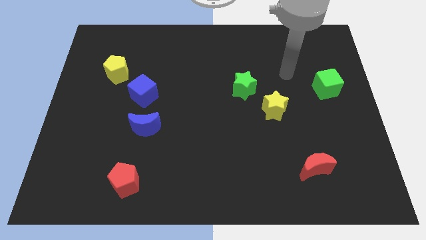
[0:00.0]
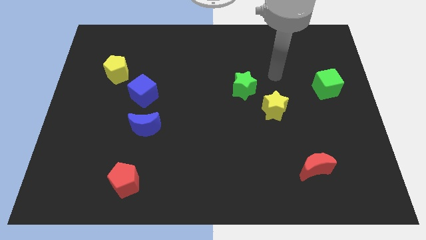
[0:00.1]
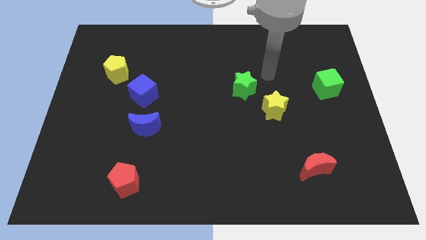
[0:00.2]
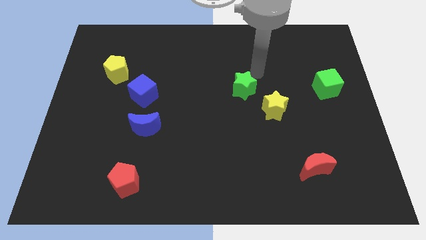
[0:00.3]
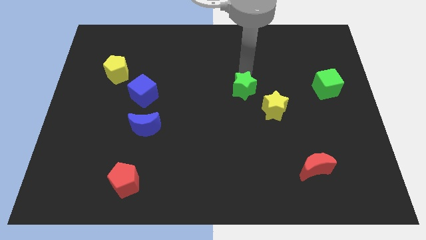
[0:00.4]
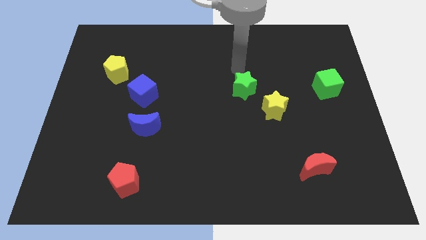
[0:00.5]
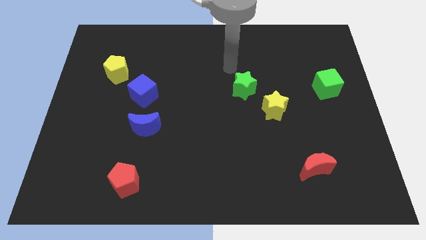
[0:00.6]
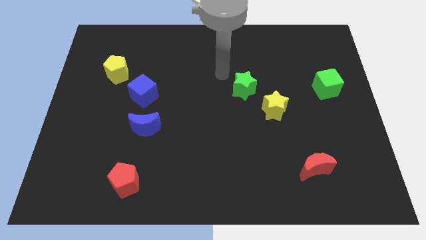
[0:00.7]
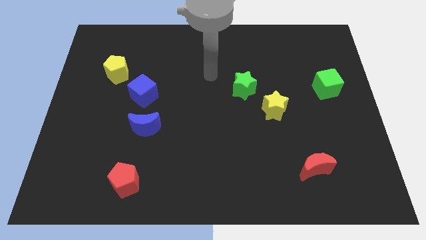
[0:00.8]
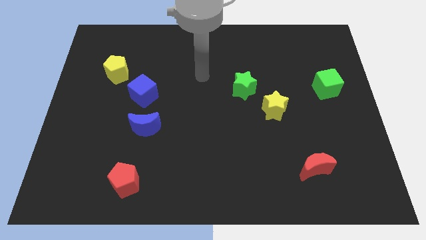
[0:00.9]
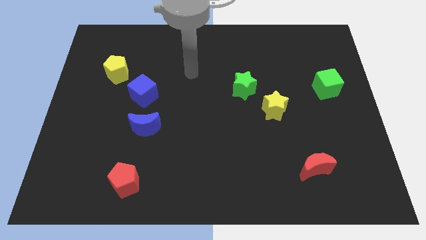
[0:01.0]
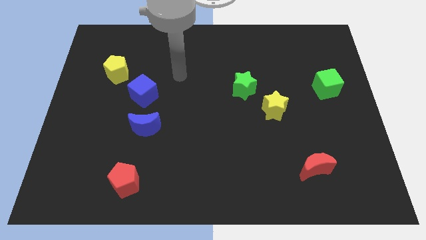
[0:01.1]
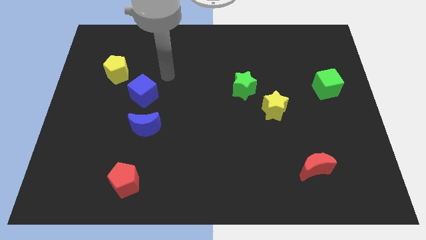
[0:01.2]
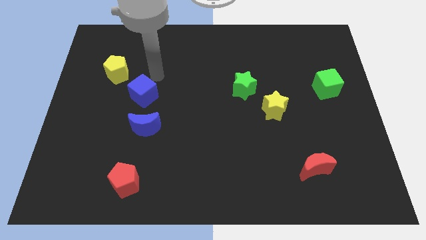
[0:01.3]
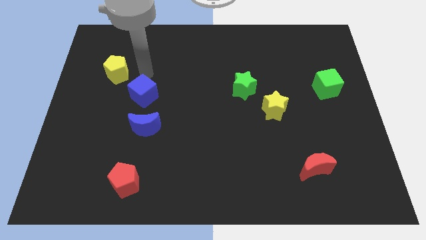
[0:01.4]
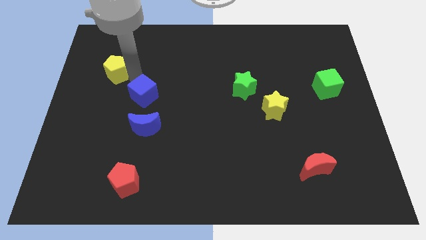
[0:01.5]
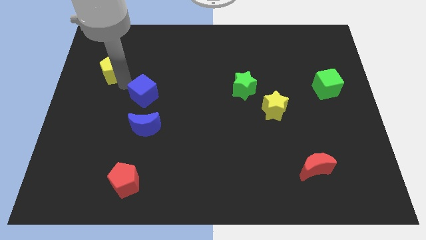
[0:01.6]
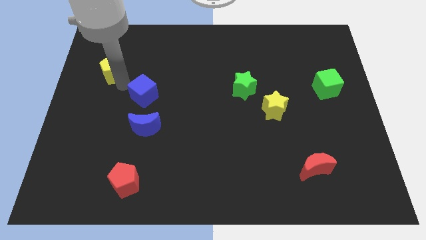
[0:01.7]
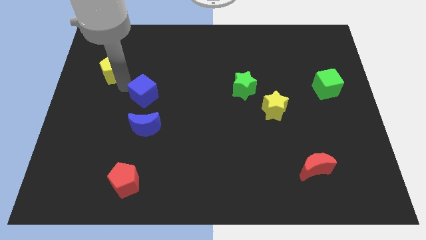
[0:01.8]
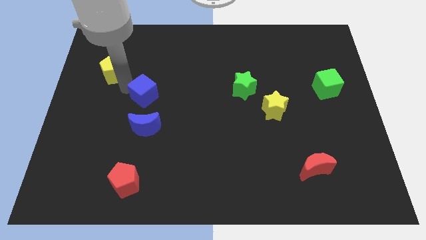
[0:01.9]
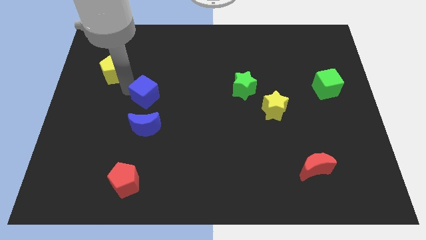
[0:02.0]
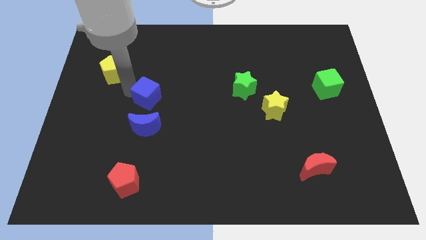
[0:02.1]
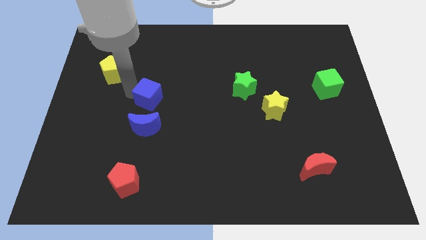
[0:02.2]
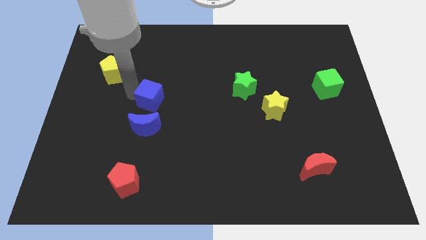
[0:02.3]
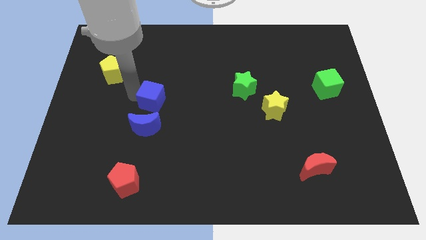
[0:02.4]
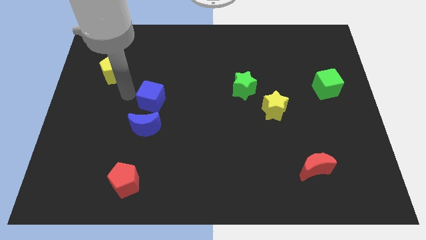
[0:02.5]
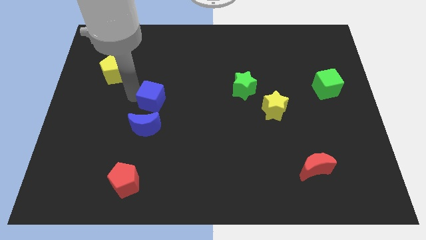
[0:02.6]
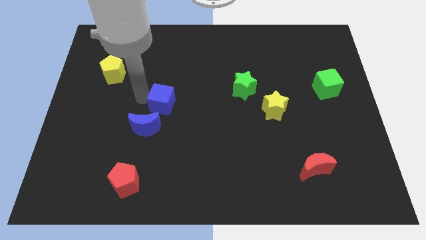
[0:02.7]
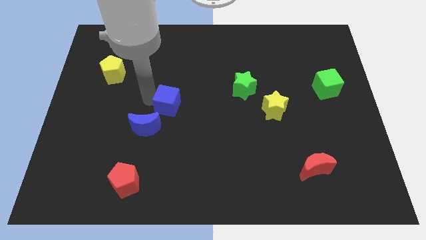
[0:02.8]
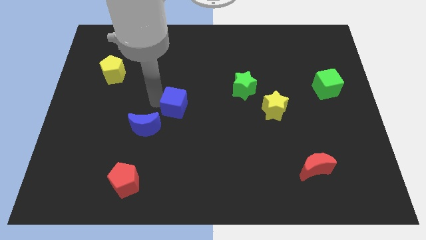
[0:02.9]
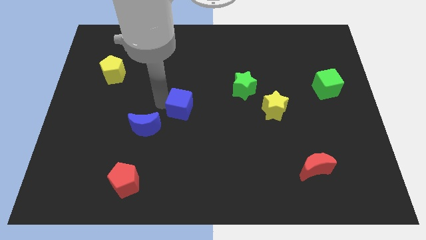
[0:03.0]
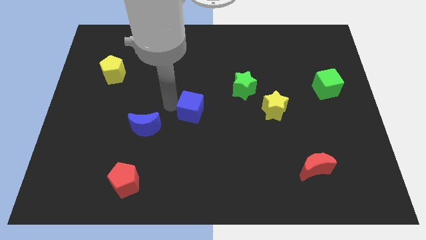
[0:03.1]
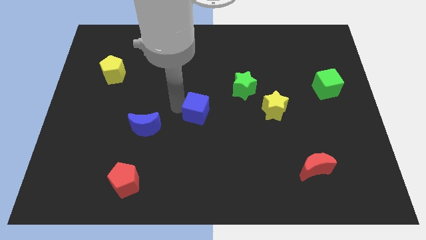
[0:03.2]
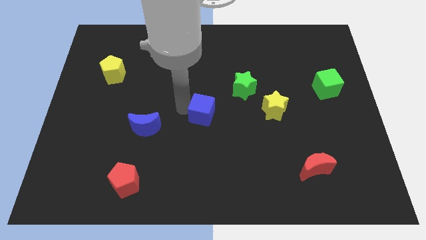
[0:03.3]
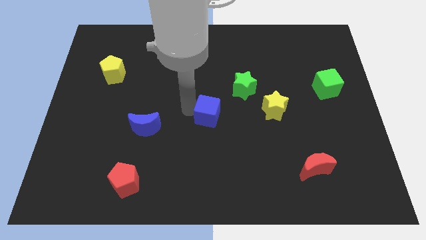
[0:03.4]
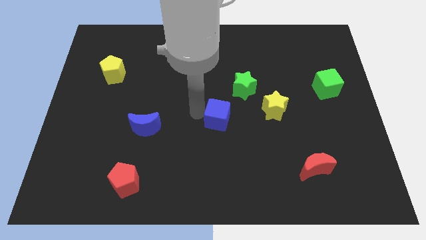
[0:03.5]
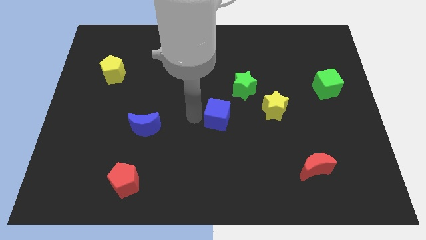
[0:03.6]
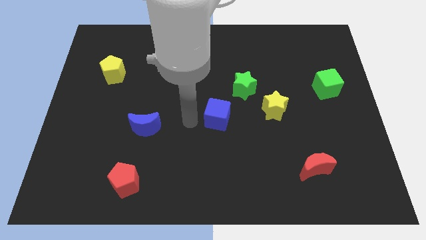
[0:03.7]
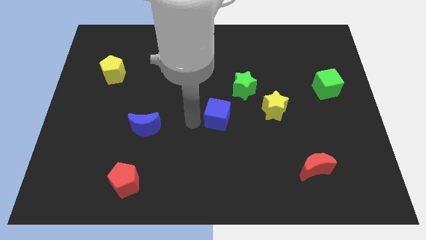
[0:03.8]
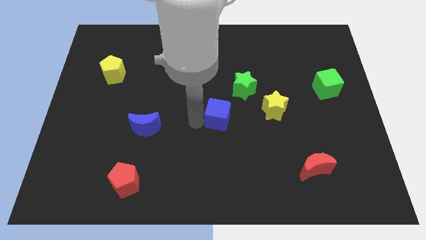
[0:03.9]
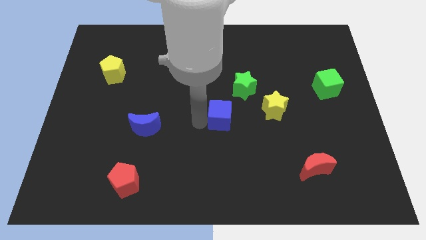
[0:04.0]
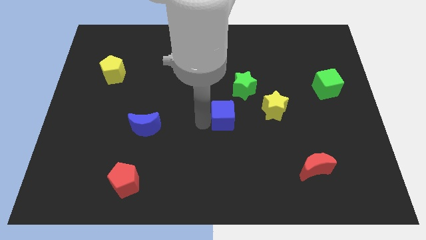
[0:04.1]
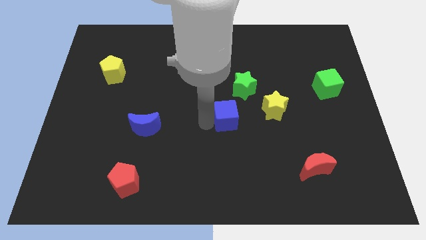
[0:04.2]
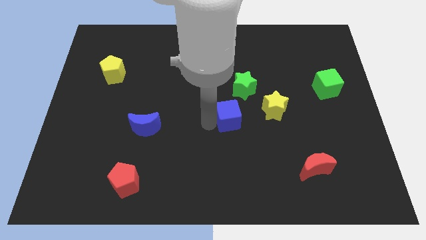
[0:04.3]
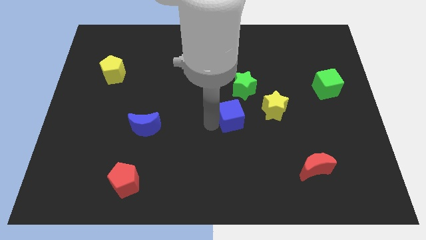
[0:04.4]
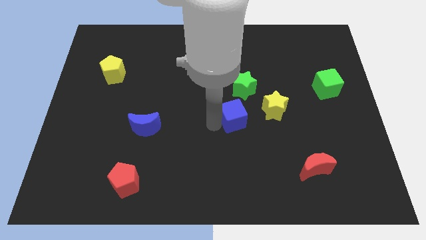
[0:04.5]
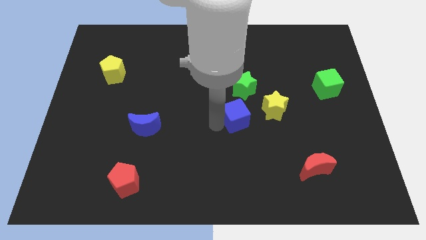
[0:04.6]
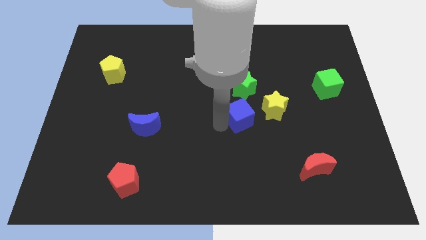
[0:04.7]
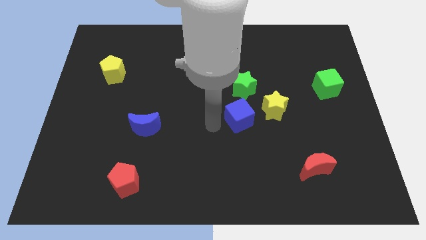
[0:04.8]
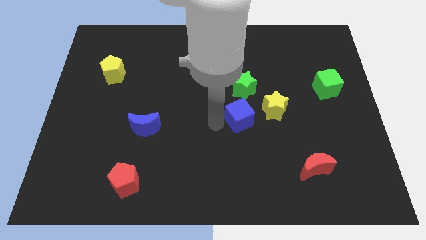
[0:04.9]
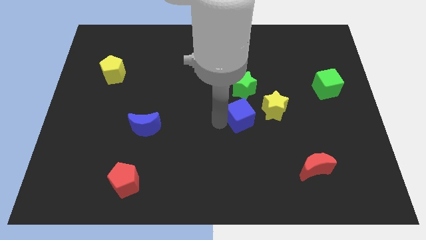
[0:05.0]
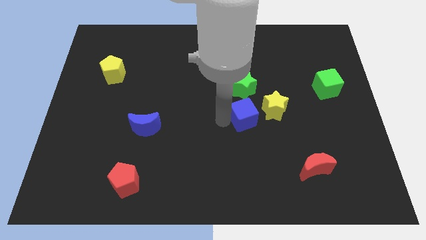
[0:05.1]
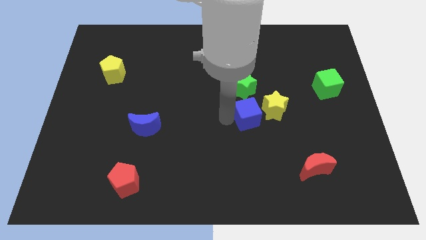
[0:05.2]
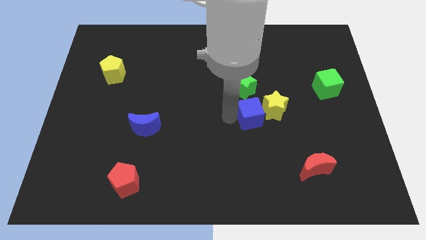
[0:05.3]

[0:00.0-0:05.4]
slide the blue cube next to the yellow star

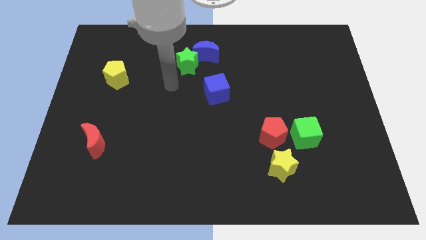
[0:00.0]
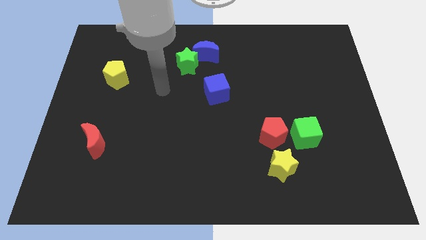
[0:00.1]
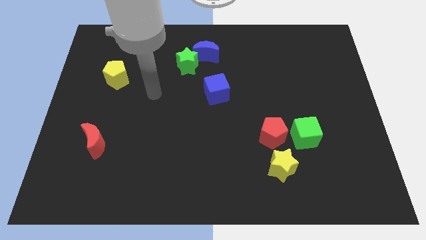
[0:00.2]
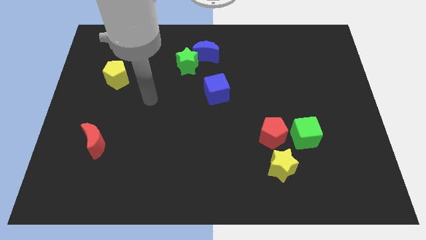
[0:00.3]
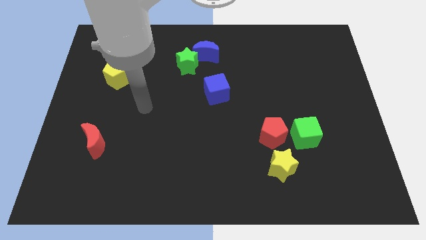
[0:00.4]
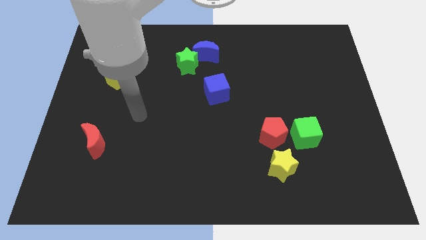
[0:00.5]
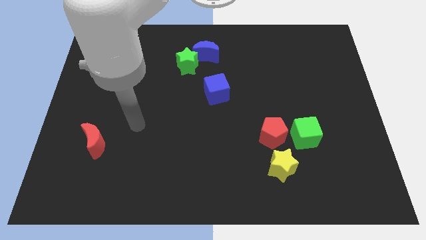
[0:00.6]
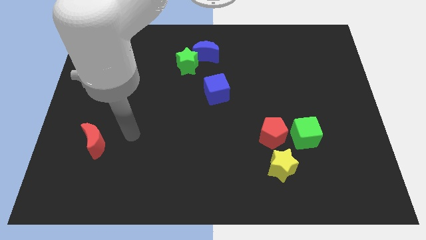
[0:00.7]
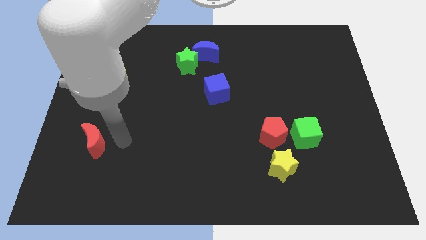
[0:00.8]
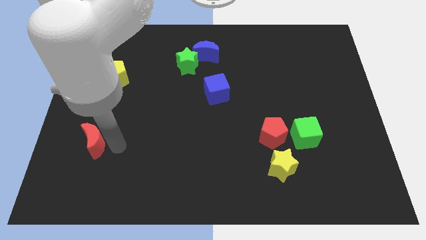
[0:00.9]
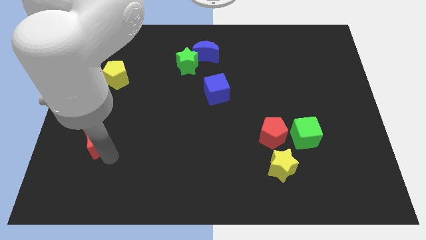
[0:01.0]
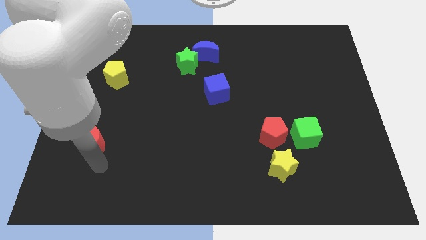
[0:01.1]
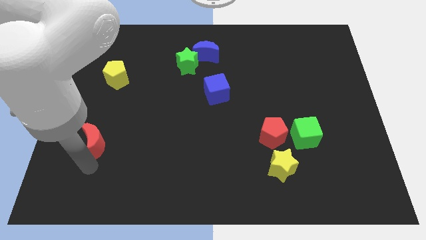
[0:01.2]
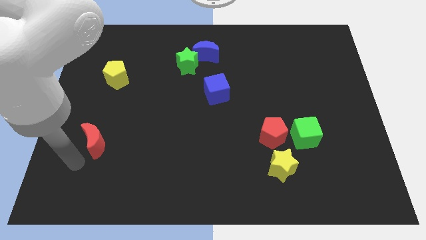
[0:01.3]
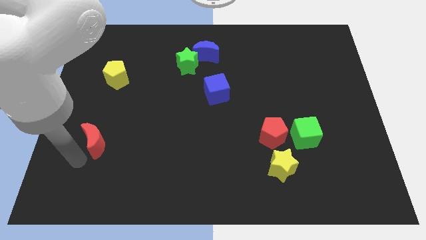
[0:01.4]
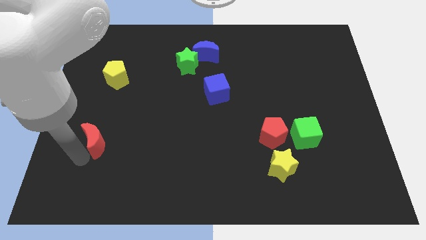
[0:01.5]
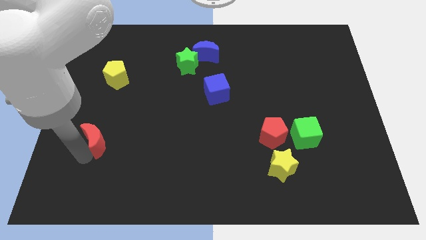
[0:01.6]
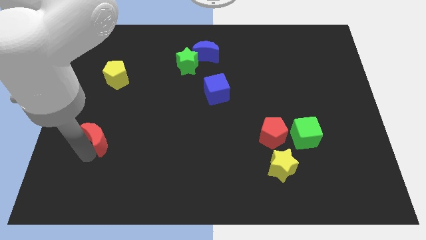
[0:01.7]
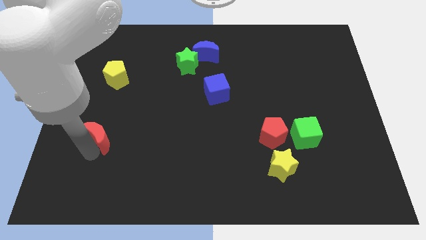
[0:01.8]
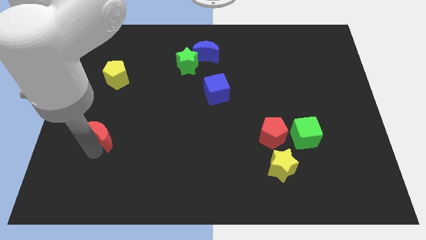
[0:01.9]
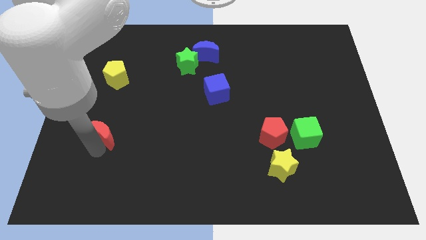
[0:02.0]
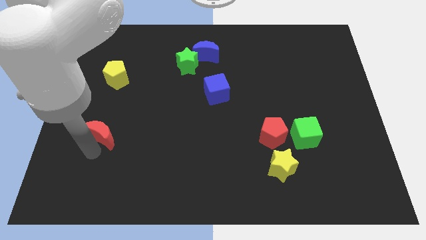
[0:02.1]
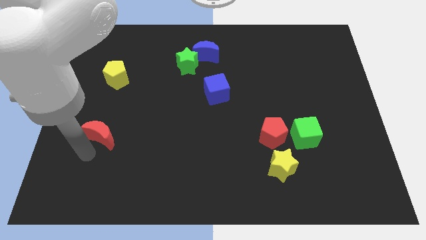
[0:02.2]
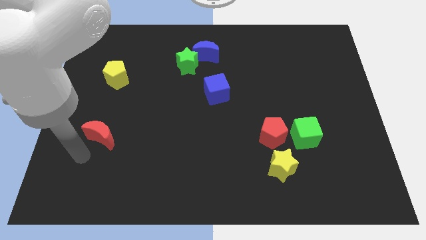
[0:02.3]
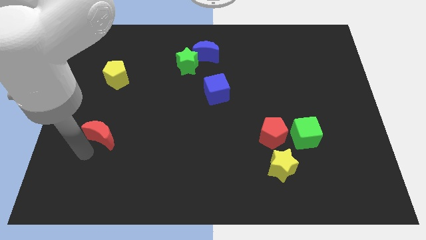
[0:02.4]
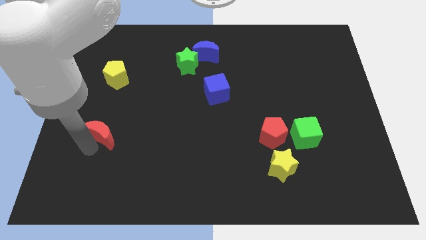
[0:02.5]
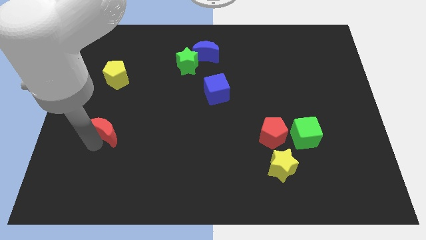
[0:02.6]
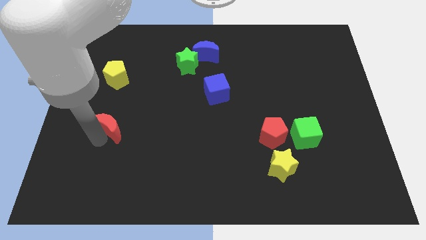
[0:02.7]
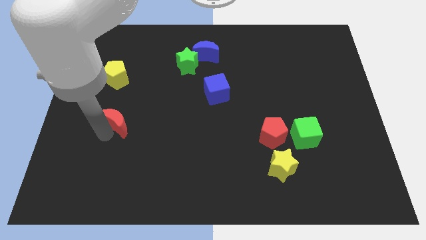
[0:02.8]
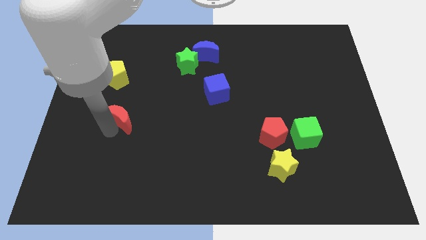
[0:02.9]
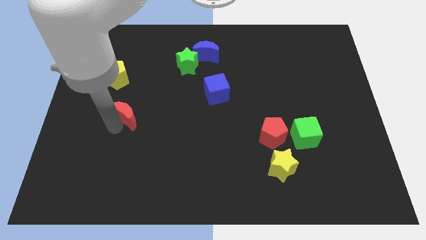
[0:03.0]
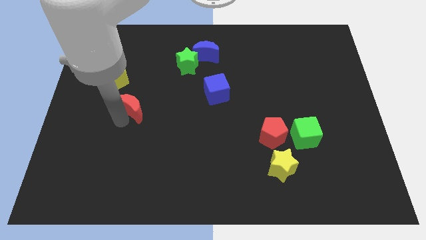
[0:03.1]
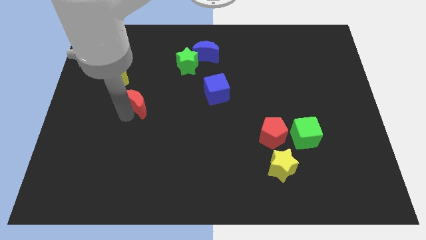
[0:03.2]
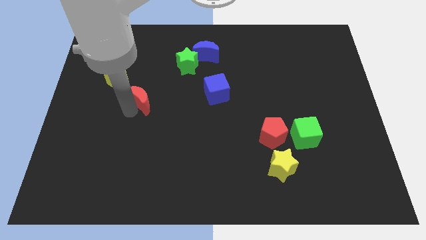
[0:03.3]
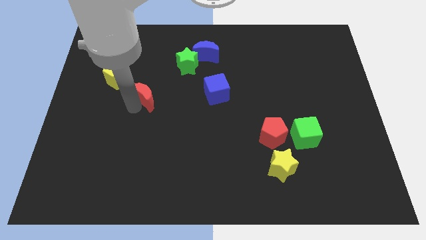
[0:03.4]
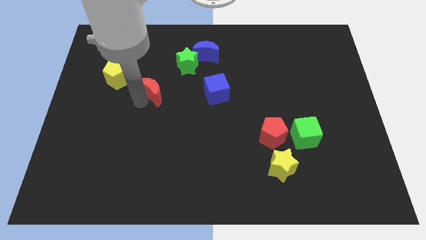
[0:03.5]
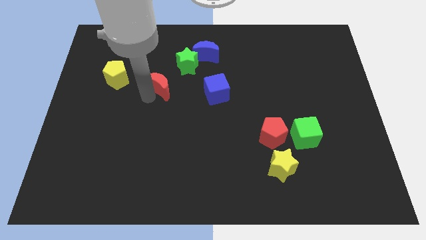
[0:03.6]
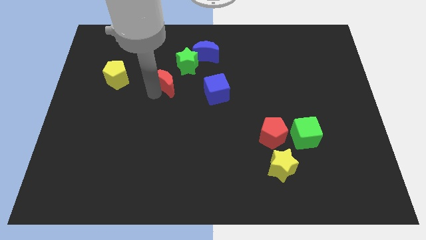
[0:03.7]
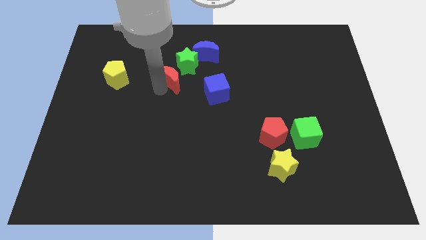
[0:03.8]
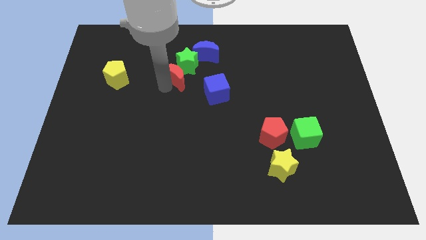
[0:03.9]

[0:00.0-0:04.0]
push the red moon next to the green star
